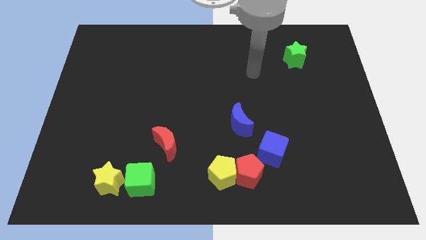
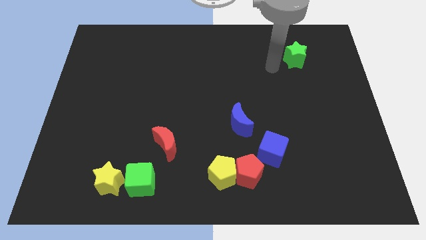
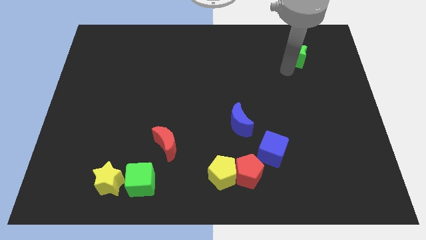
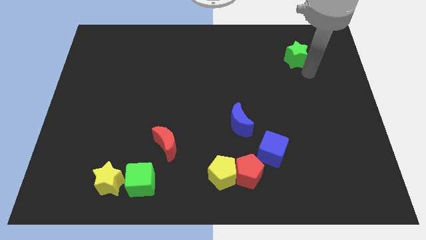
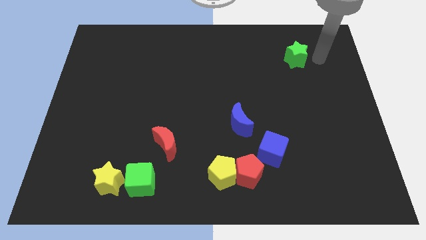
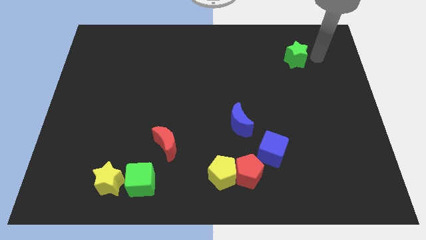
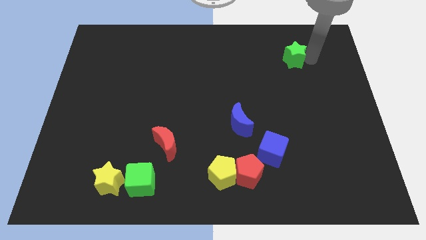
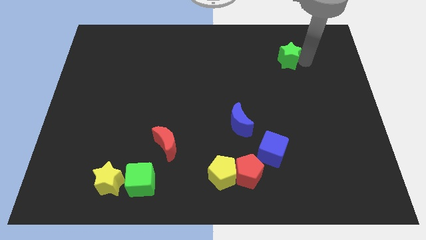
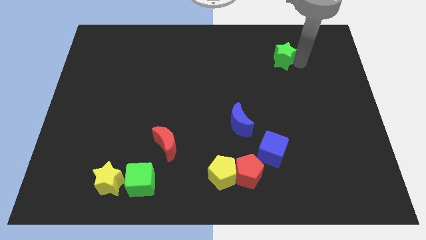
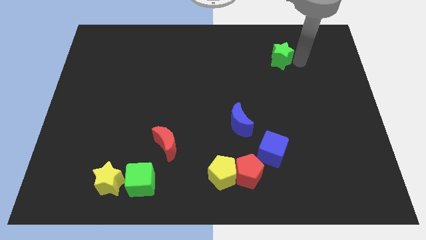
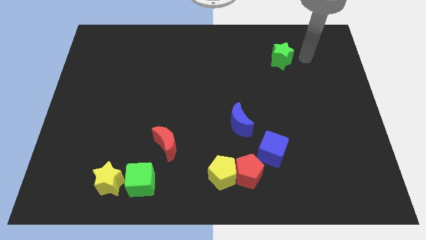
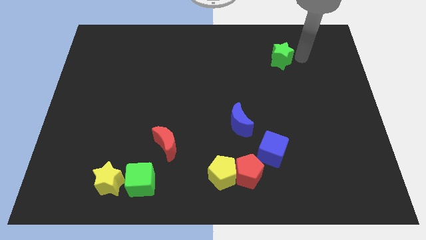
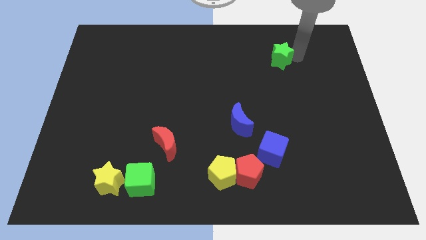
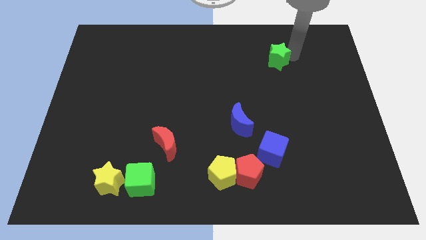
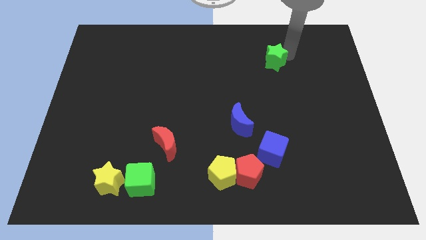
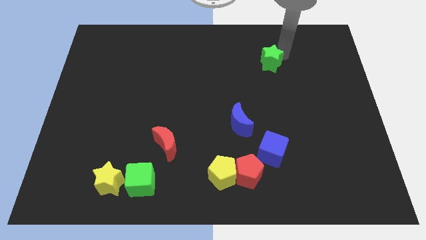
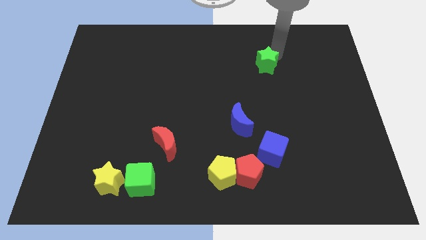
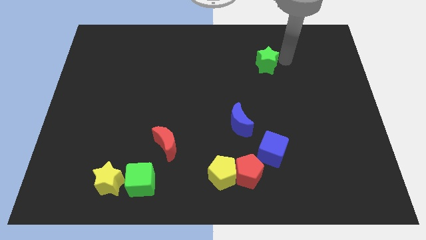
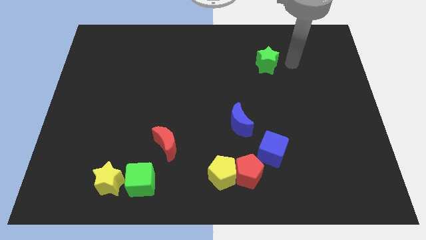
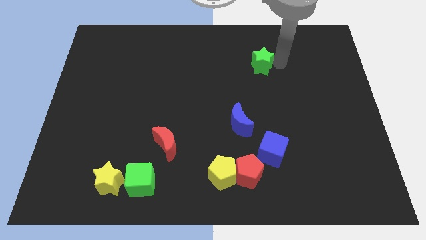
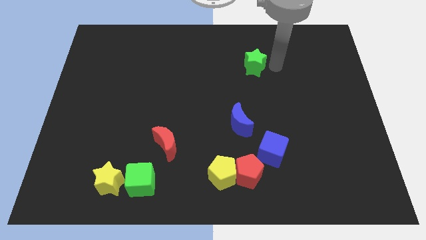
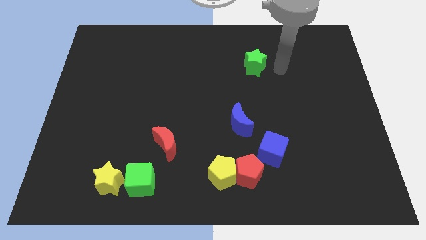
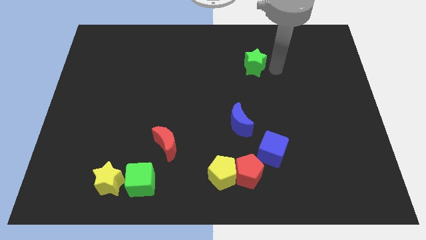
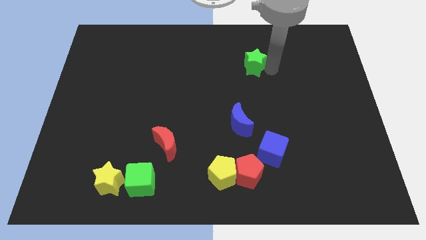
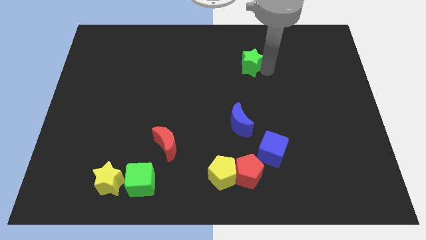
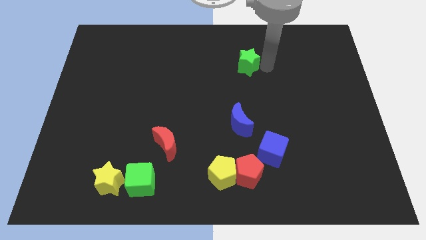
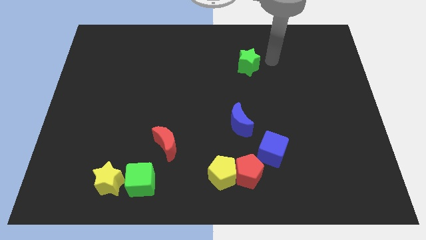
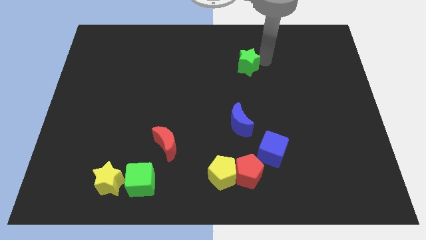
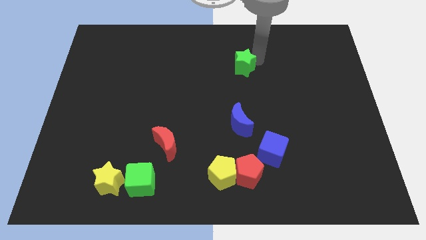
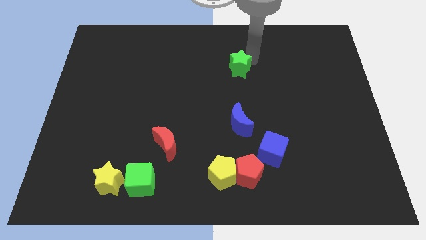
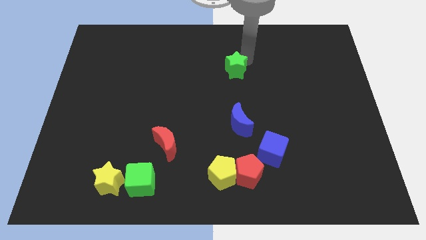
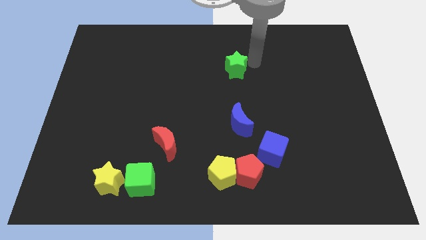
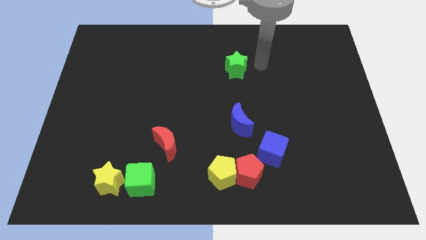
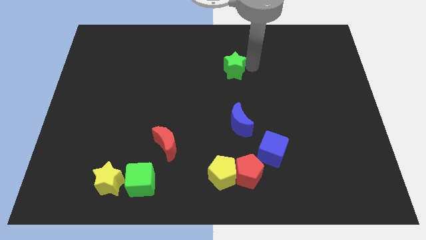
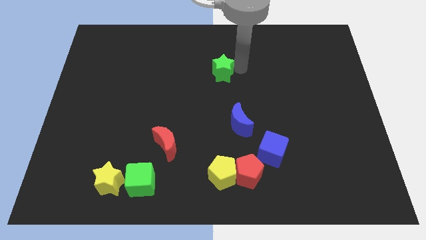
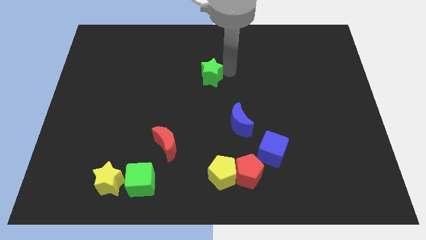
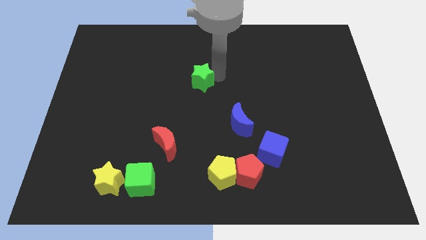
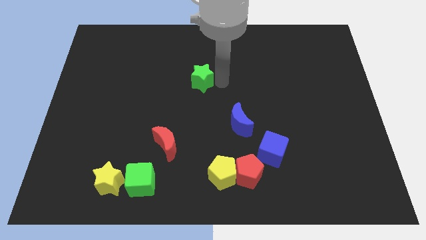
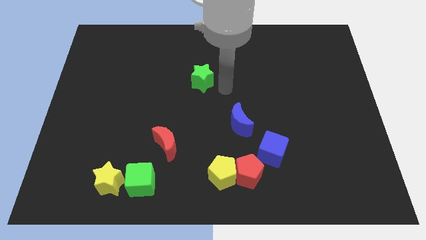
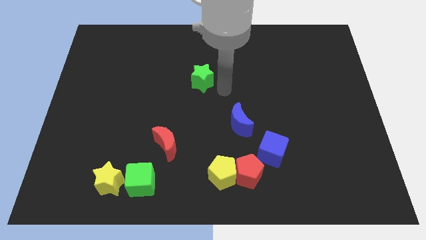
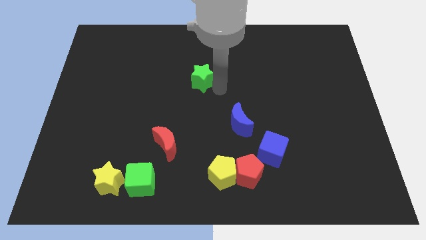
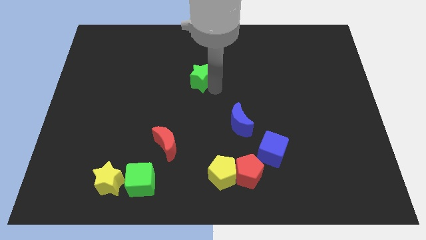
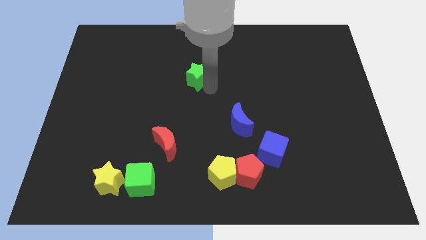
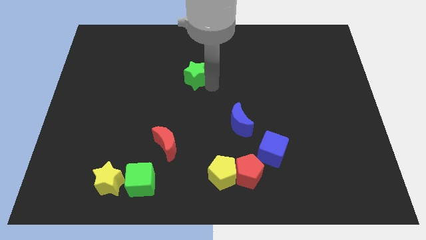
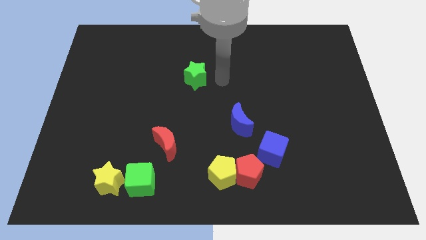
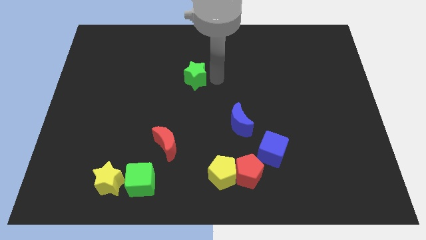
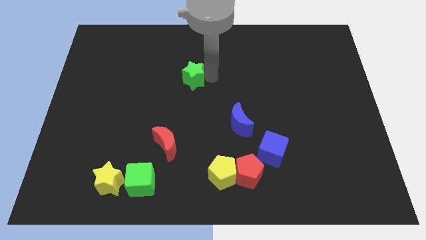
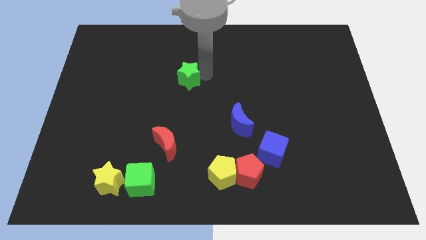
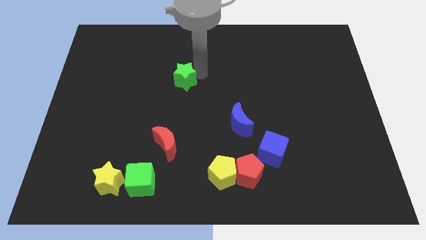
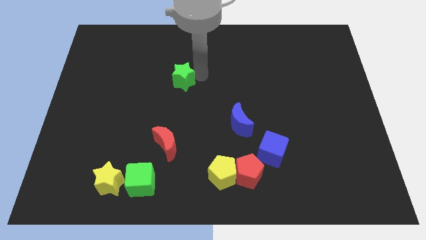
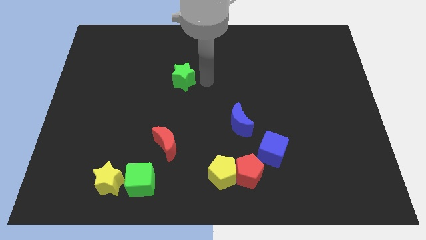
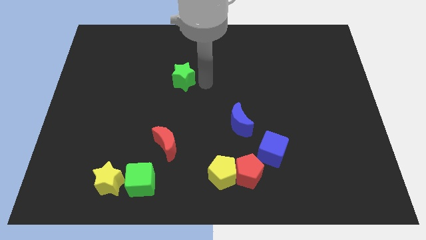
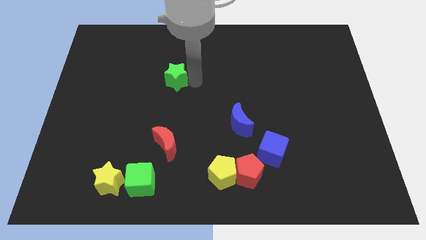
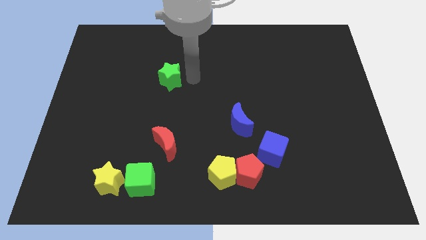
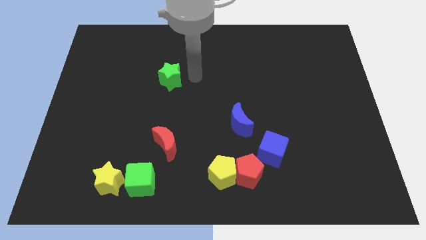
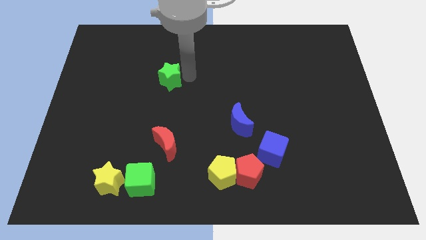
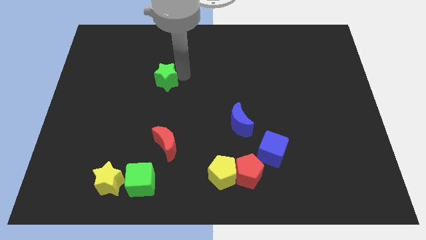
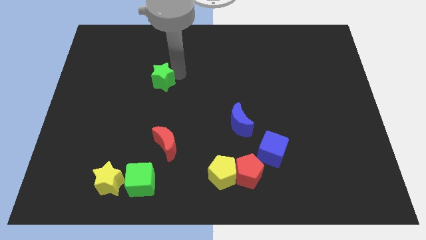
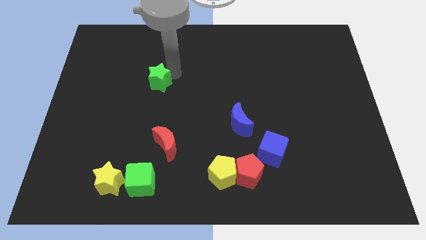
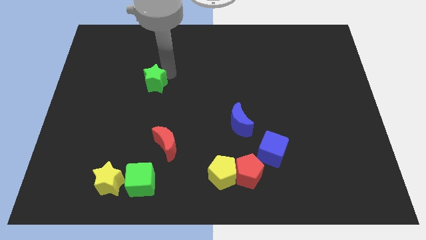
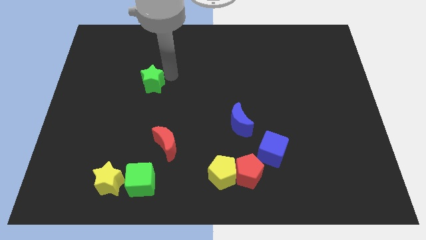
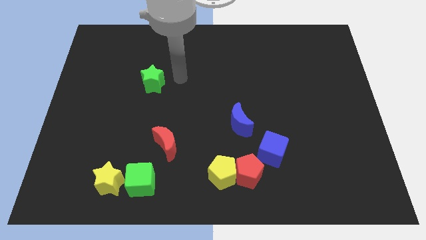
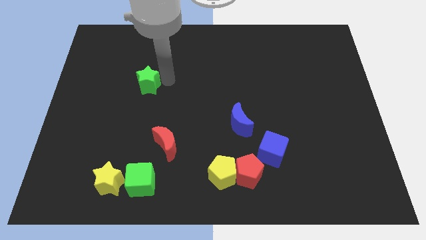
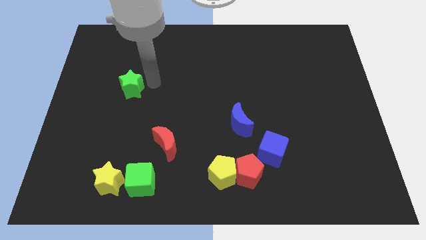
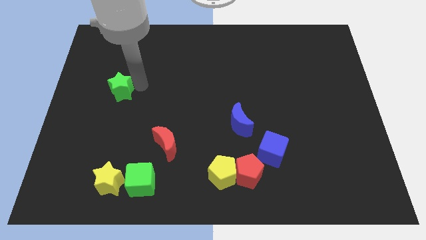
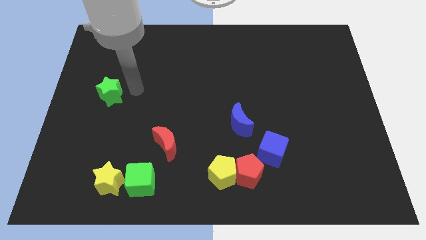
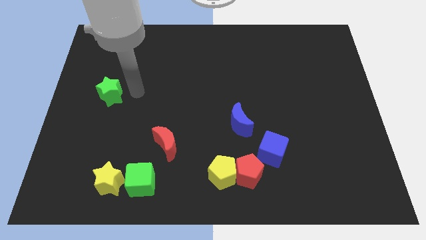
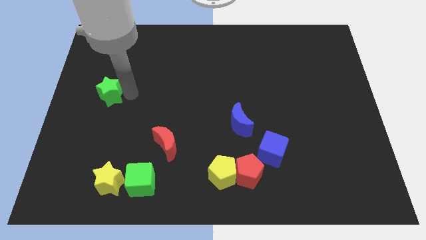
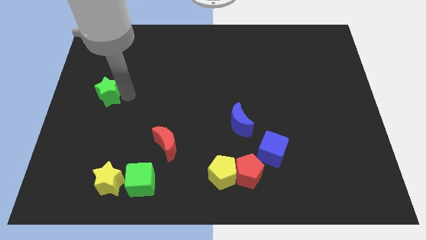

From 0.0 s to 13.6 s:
slide the green star to the center left
